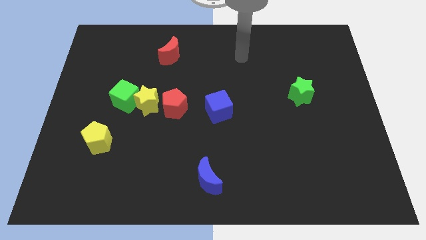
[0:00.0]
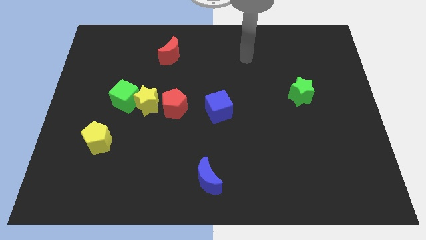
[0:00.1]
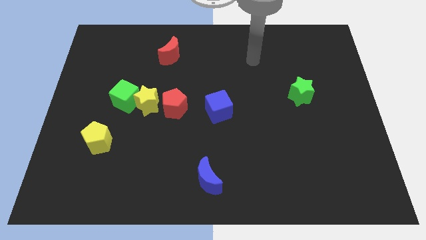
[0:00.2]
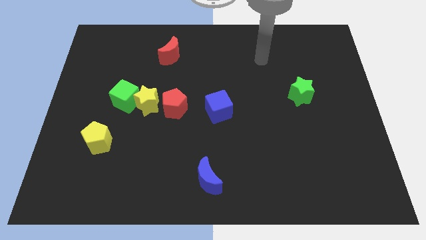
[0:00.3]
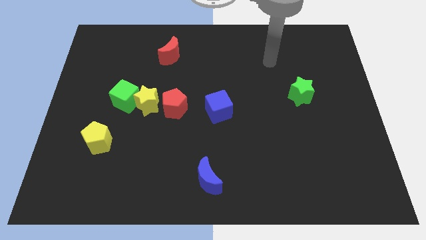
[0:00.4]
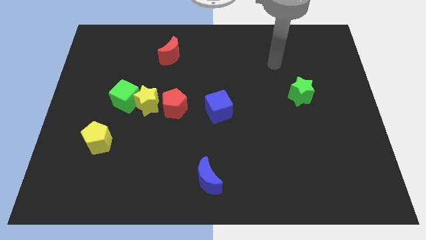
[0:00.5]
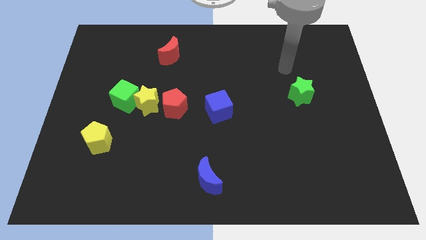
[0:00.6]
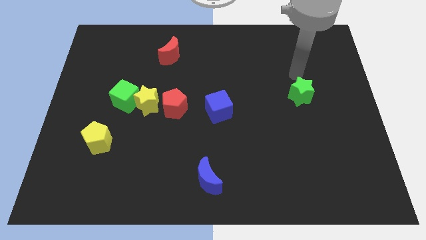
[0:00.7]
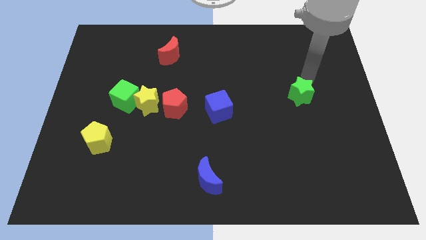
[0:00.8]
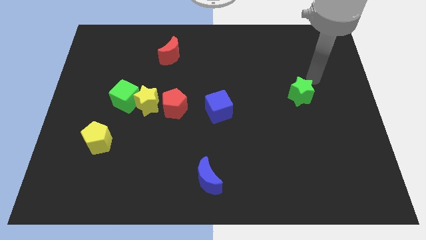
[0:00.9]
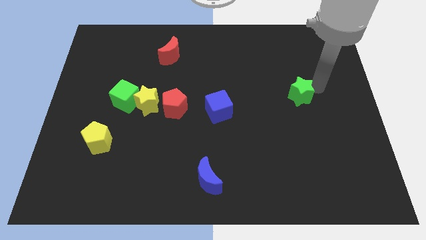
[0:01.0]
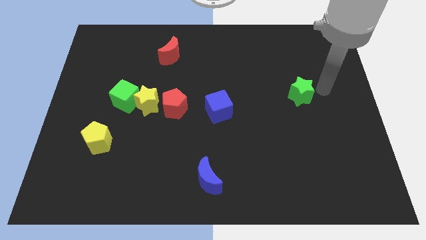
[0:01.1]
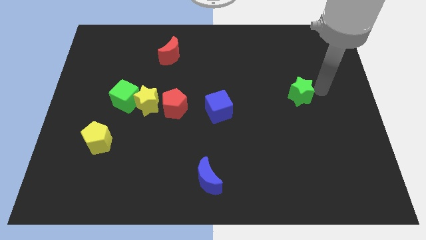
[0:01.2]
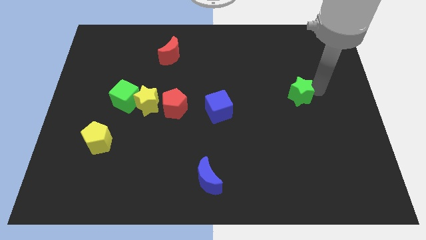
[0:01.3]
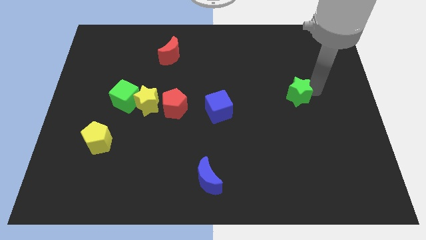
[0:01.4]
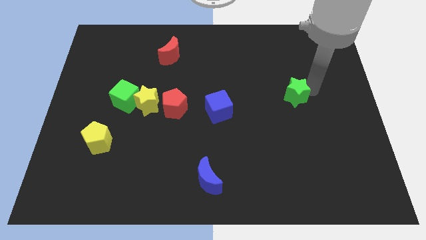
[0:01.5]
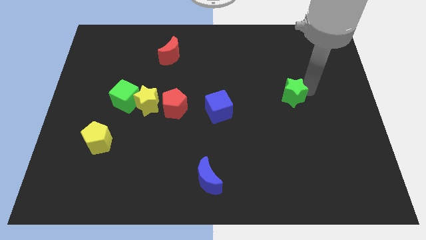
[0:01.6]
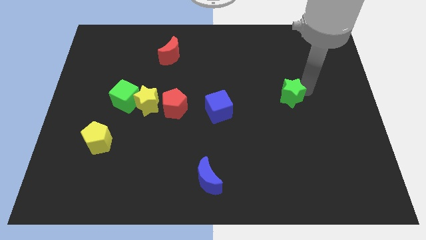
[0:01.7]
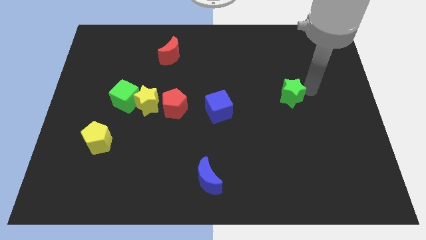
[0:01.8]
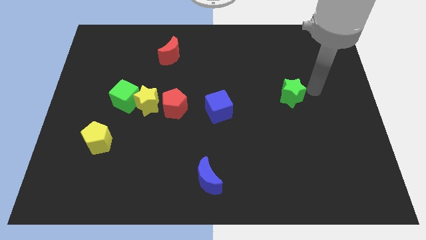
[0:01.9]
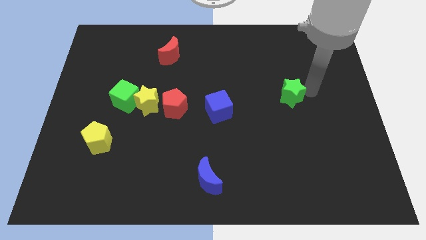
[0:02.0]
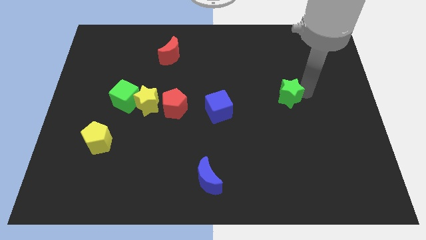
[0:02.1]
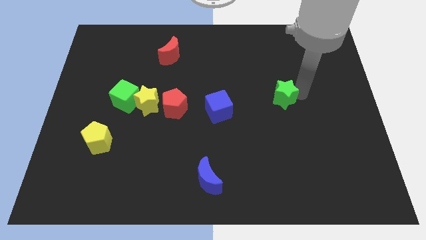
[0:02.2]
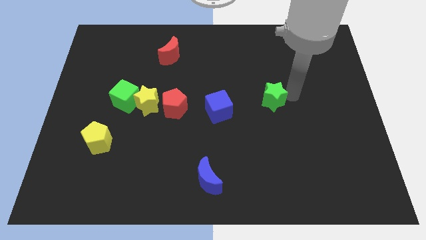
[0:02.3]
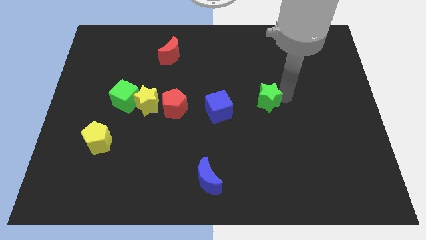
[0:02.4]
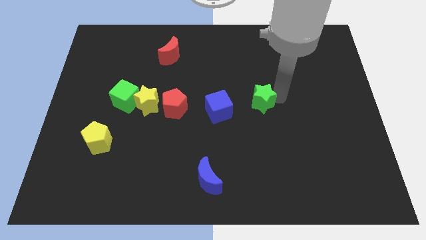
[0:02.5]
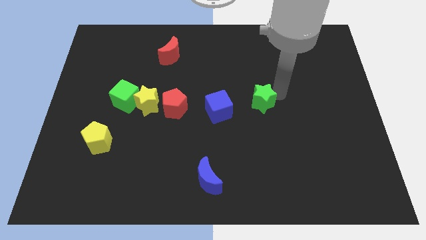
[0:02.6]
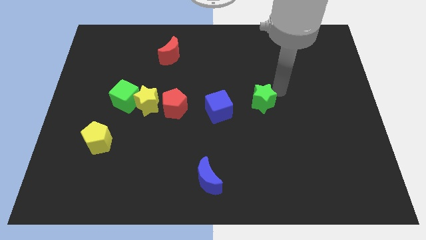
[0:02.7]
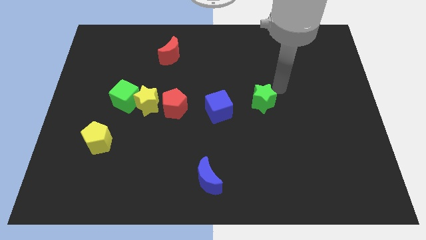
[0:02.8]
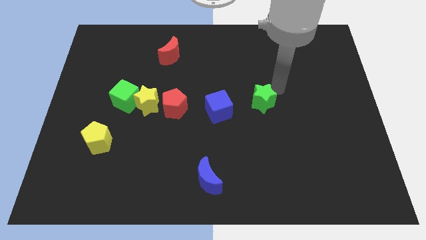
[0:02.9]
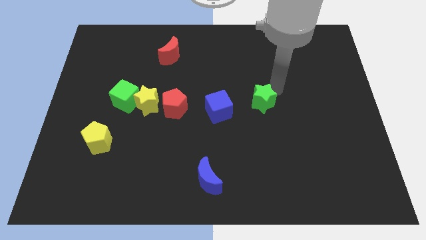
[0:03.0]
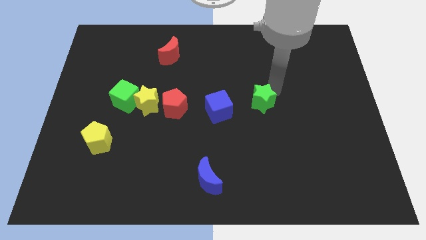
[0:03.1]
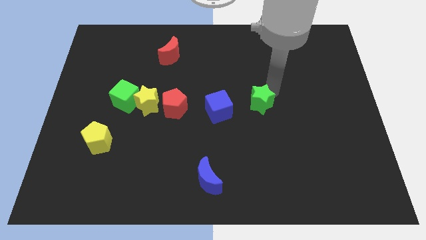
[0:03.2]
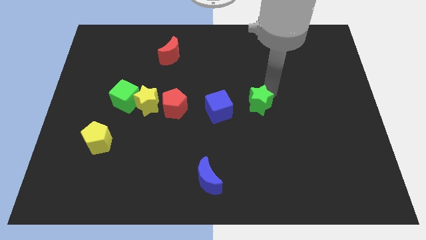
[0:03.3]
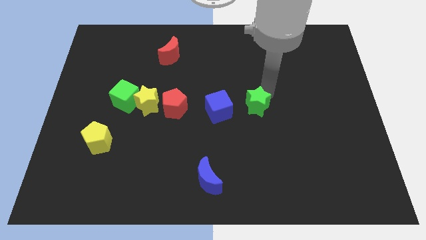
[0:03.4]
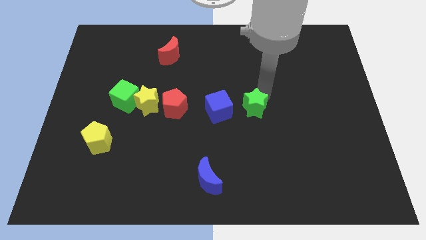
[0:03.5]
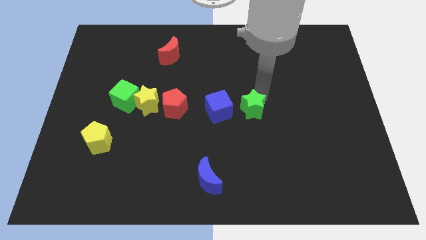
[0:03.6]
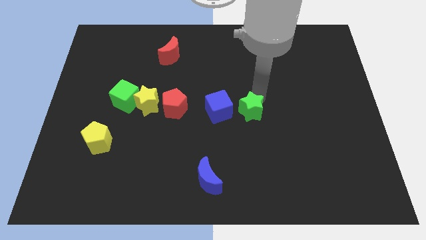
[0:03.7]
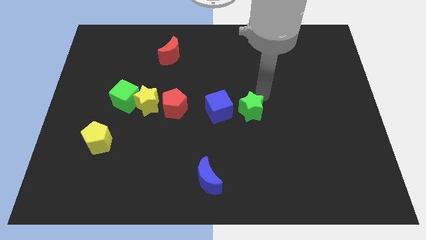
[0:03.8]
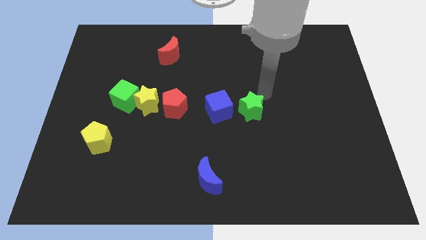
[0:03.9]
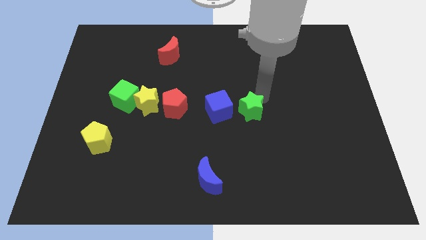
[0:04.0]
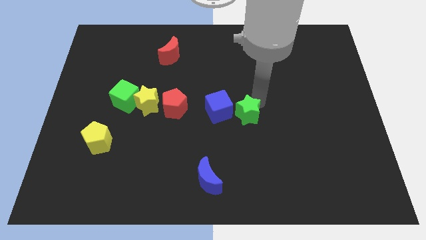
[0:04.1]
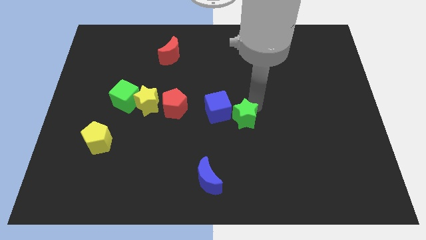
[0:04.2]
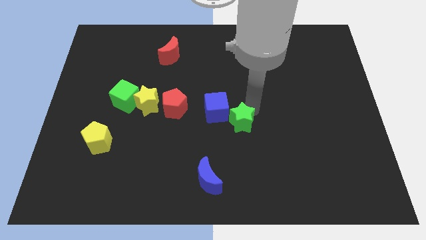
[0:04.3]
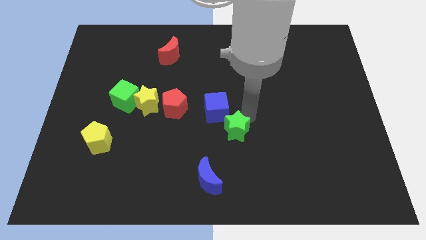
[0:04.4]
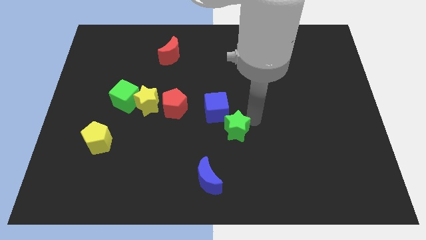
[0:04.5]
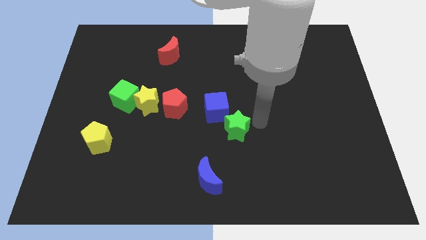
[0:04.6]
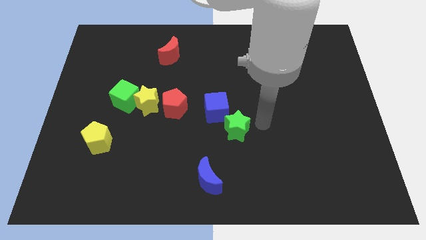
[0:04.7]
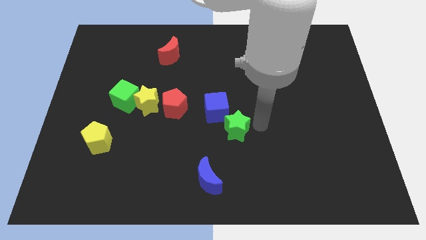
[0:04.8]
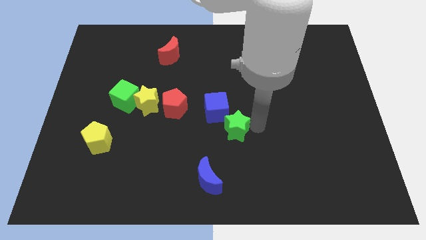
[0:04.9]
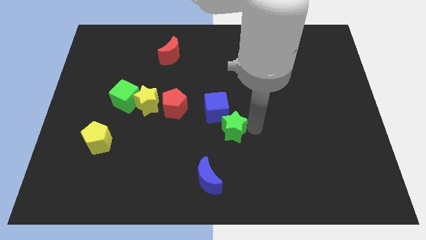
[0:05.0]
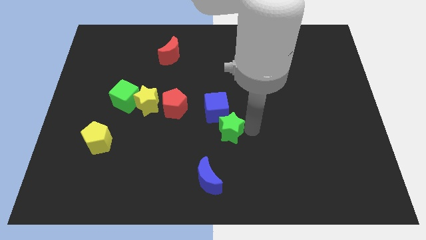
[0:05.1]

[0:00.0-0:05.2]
slide the green star to the top side of the blue moon

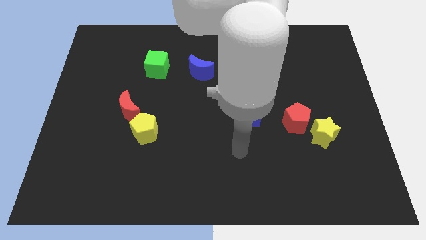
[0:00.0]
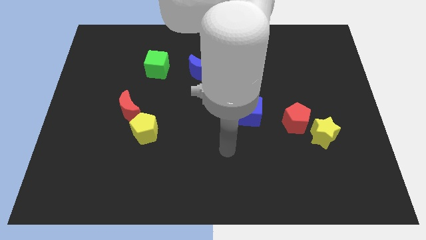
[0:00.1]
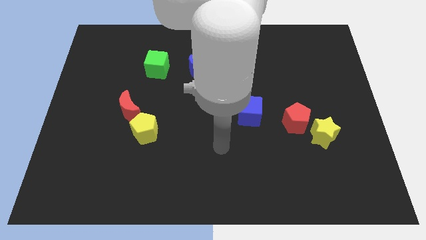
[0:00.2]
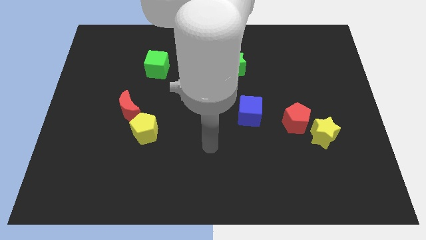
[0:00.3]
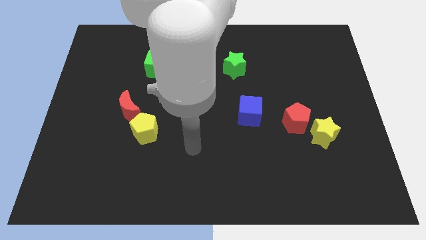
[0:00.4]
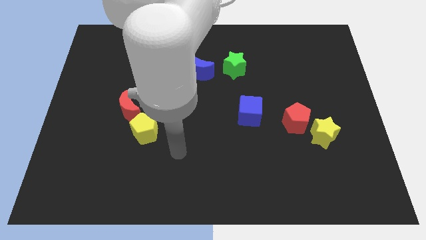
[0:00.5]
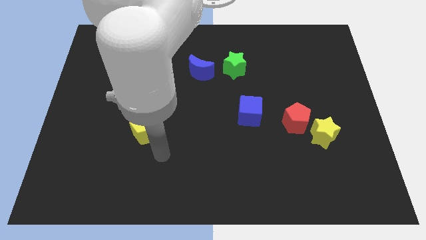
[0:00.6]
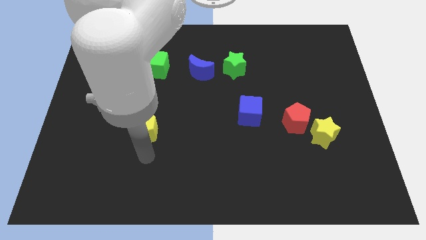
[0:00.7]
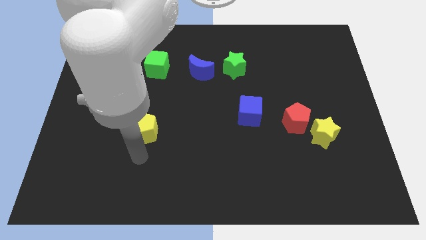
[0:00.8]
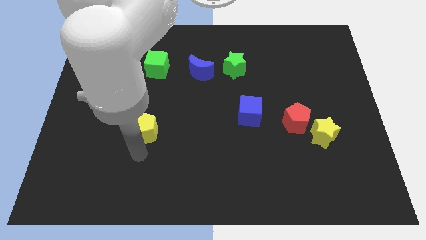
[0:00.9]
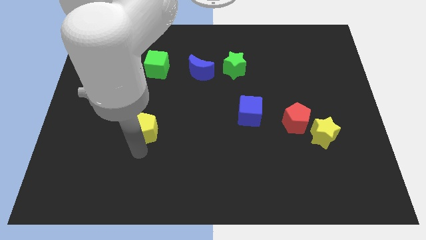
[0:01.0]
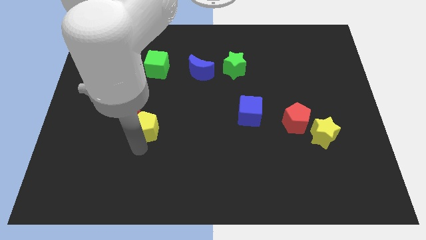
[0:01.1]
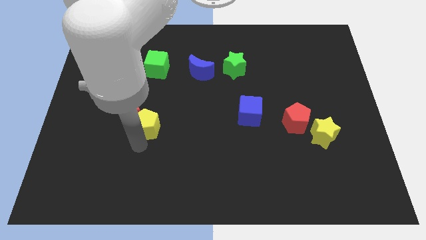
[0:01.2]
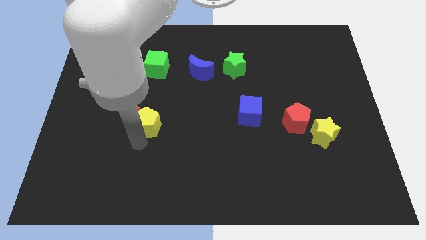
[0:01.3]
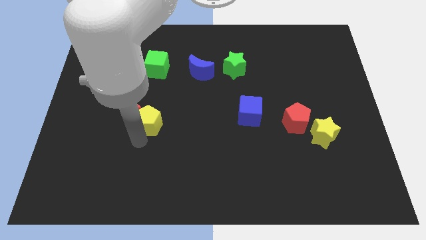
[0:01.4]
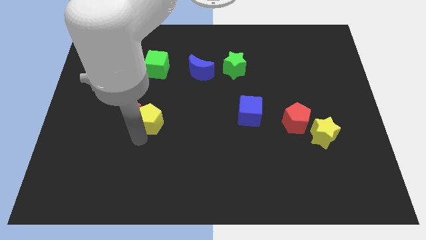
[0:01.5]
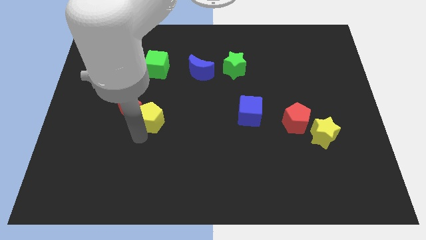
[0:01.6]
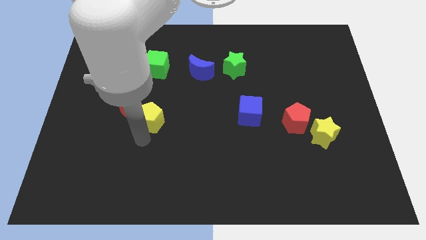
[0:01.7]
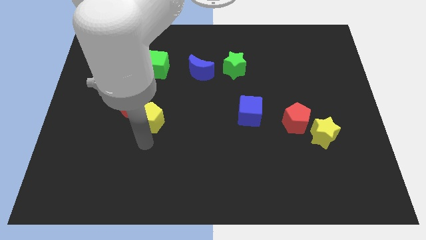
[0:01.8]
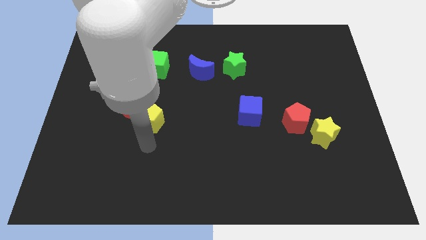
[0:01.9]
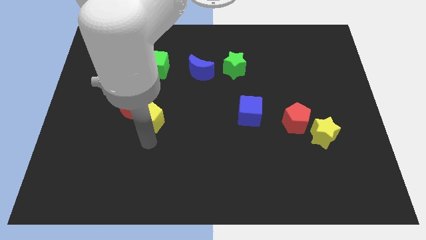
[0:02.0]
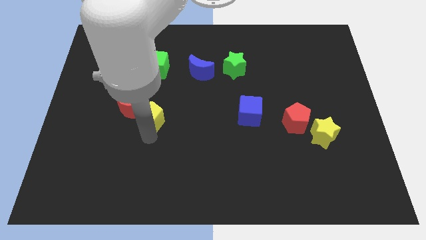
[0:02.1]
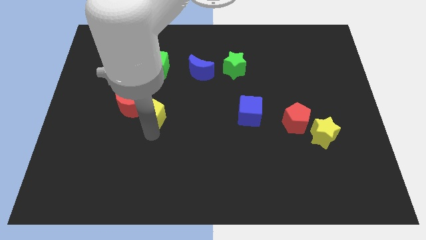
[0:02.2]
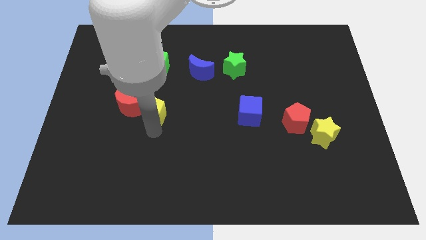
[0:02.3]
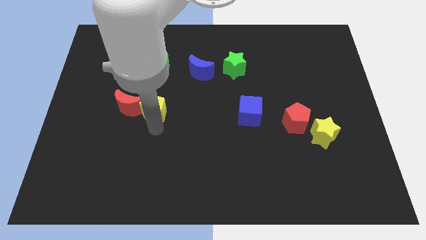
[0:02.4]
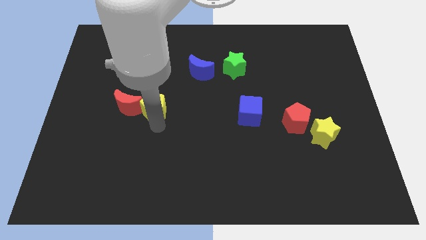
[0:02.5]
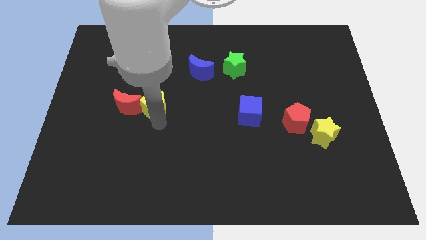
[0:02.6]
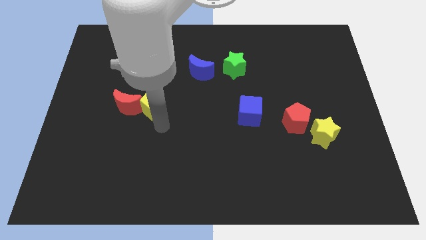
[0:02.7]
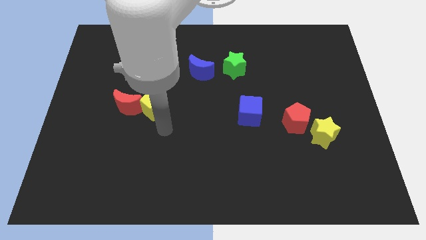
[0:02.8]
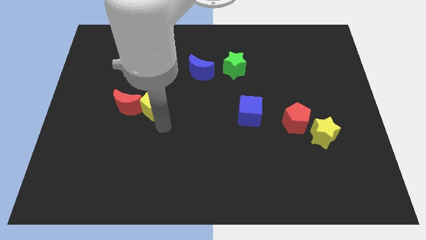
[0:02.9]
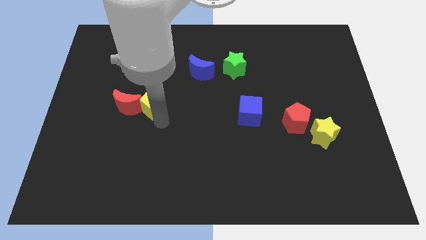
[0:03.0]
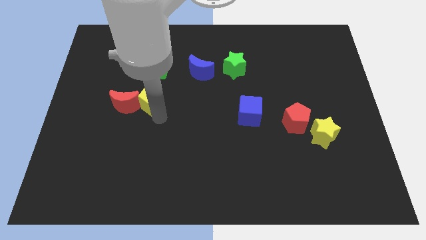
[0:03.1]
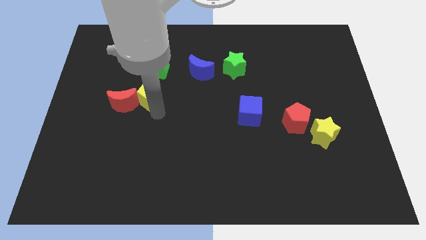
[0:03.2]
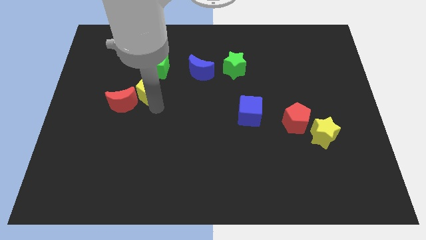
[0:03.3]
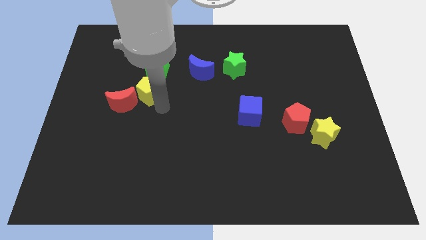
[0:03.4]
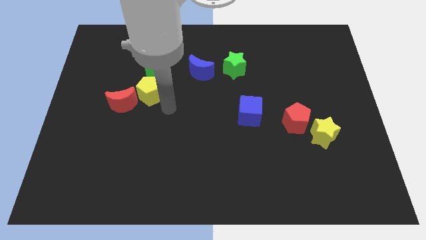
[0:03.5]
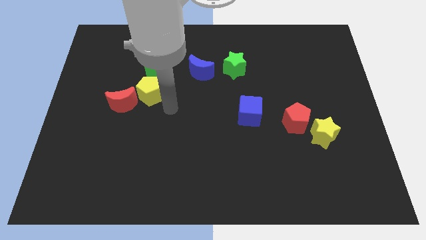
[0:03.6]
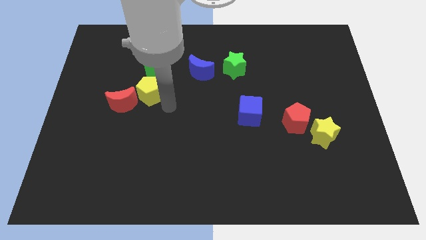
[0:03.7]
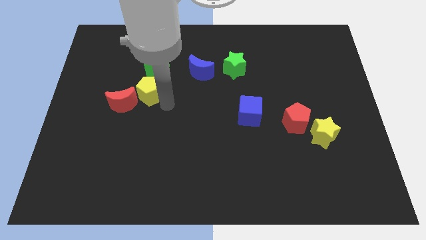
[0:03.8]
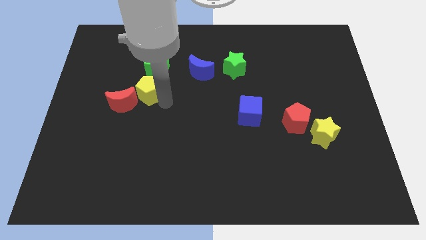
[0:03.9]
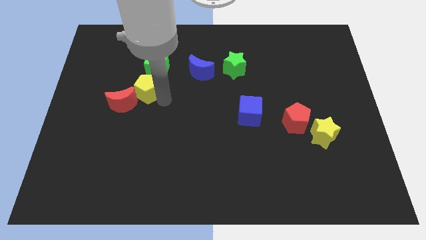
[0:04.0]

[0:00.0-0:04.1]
push the yellow pentagon to the bottom left of the green cube
